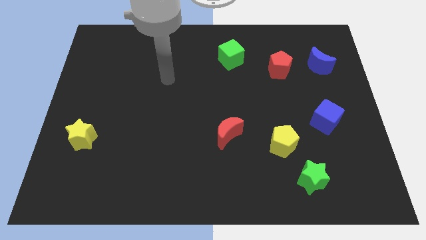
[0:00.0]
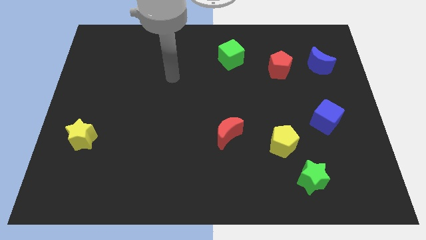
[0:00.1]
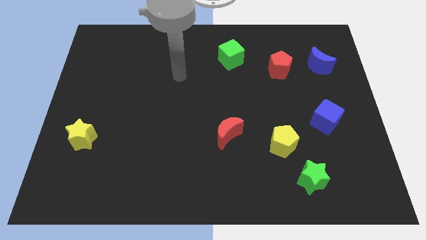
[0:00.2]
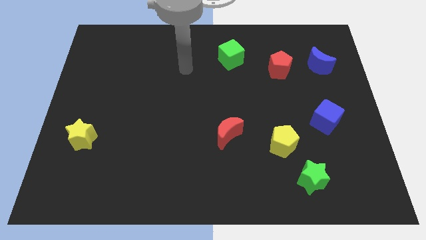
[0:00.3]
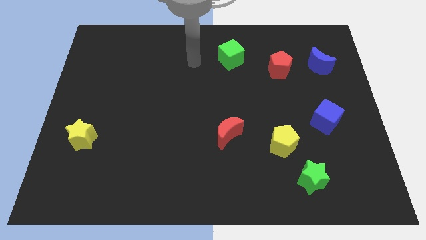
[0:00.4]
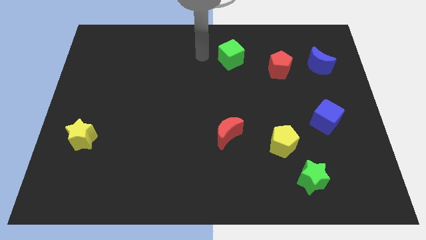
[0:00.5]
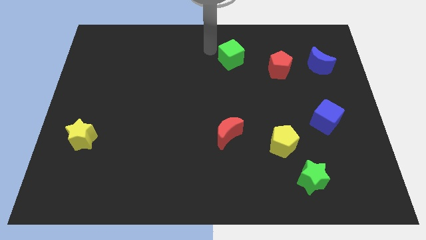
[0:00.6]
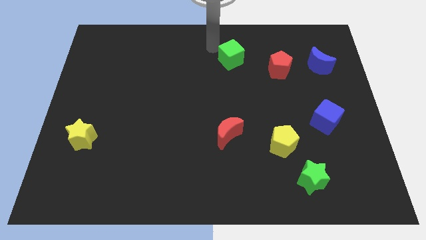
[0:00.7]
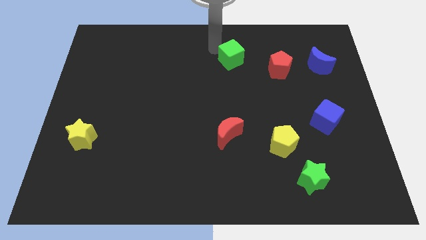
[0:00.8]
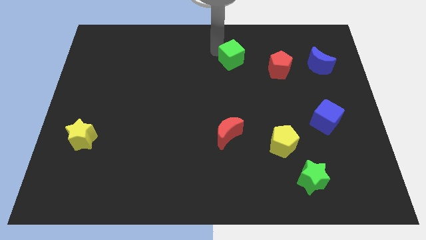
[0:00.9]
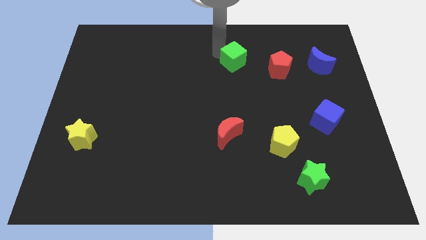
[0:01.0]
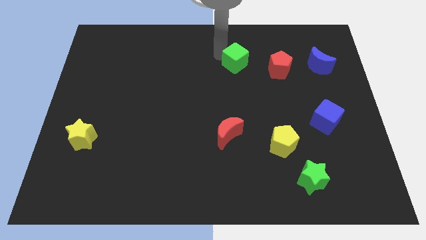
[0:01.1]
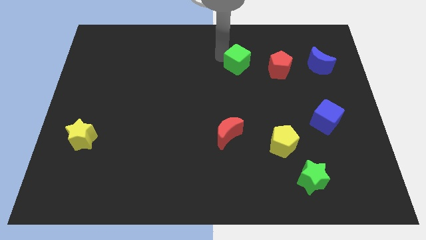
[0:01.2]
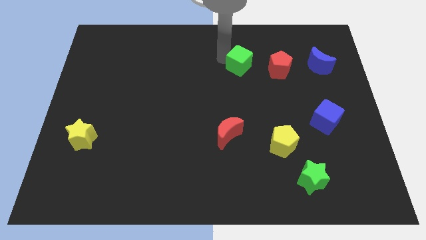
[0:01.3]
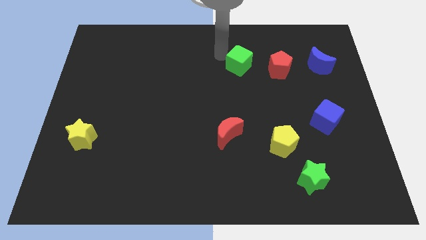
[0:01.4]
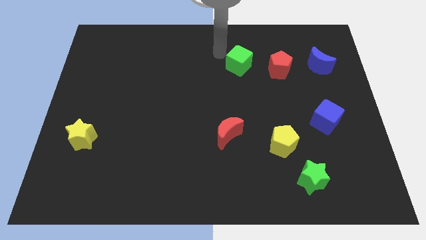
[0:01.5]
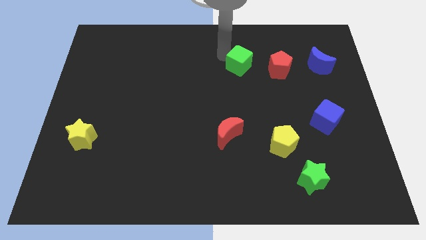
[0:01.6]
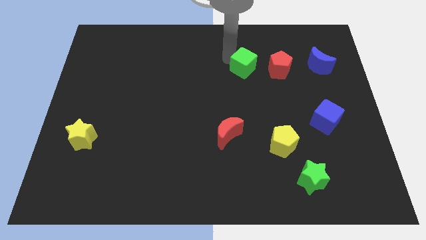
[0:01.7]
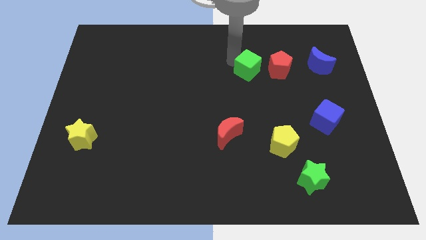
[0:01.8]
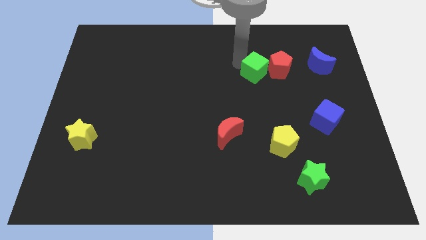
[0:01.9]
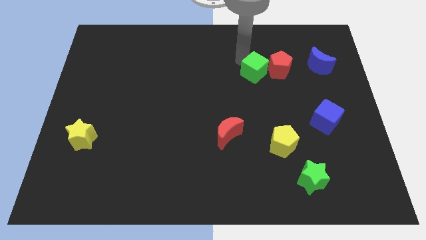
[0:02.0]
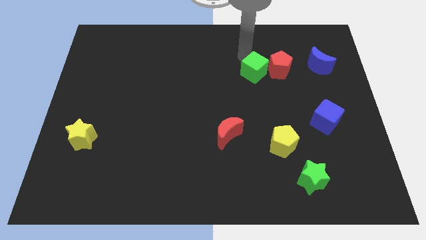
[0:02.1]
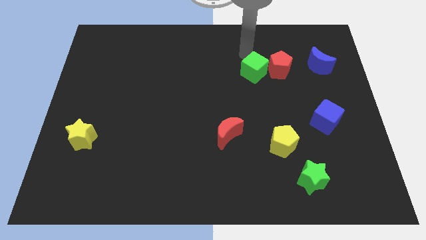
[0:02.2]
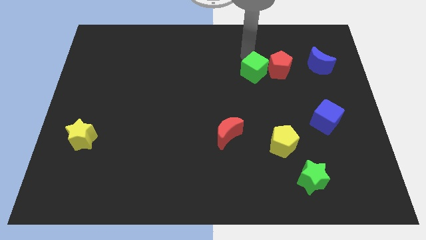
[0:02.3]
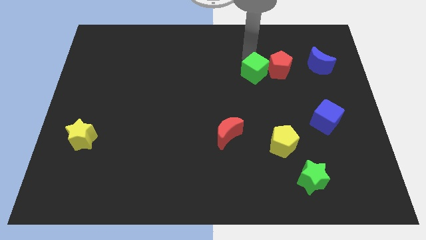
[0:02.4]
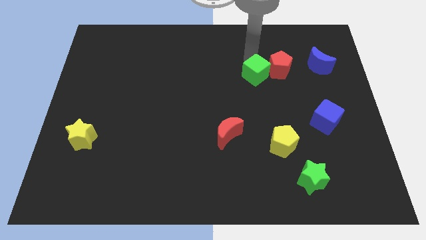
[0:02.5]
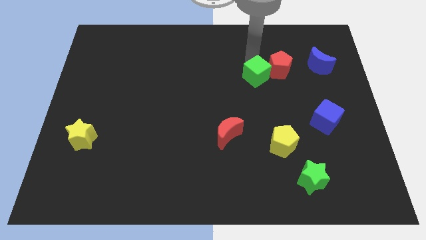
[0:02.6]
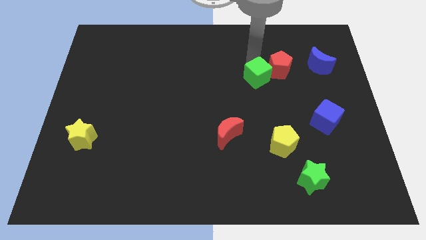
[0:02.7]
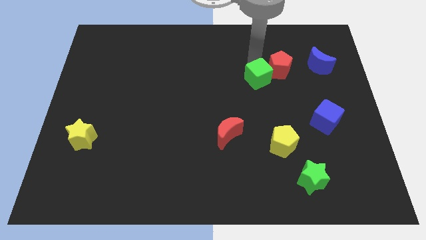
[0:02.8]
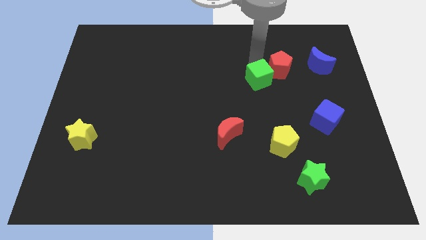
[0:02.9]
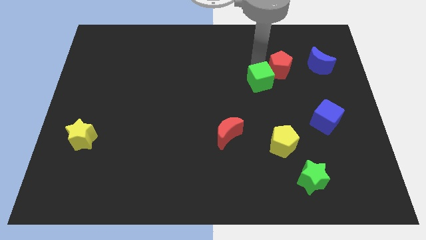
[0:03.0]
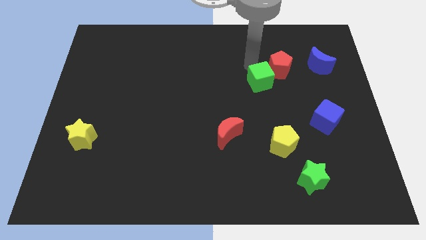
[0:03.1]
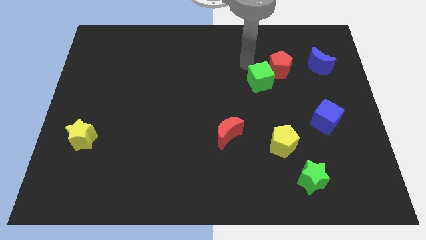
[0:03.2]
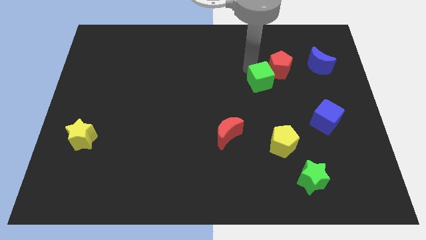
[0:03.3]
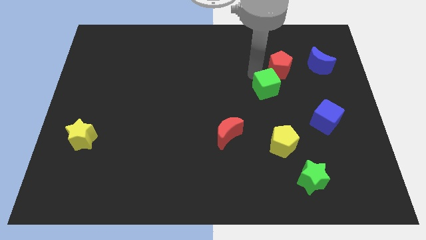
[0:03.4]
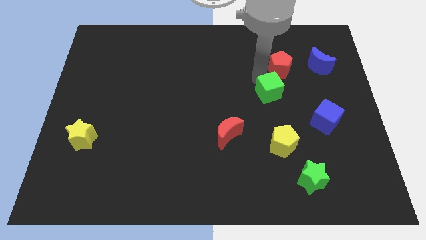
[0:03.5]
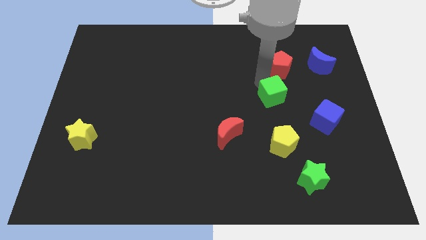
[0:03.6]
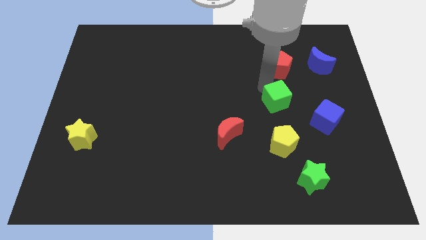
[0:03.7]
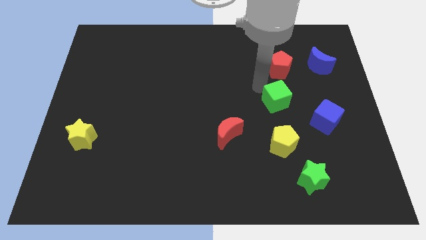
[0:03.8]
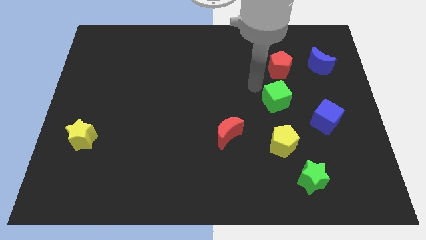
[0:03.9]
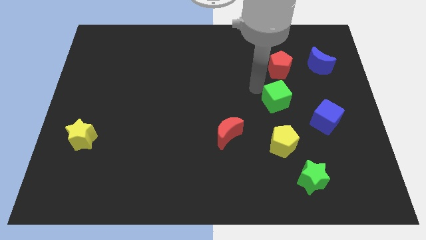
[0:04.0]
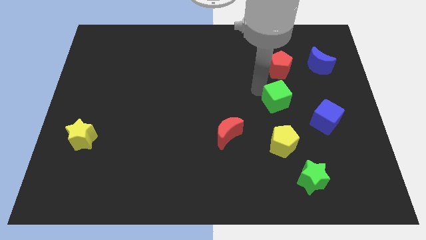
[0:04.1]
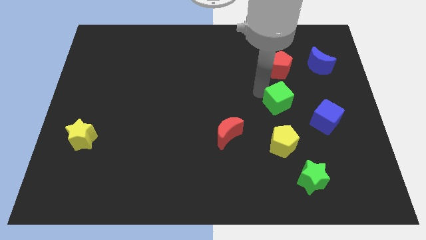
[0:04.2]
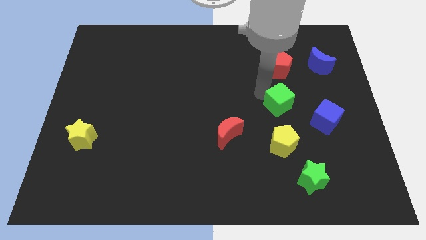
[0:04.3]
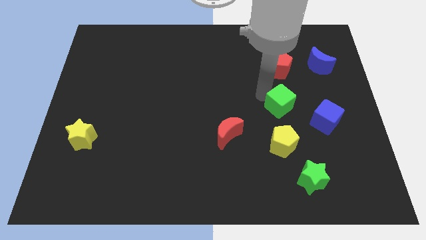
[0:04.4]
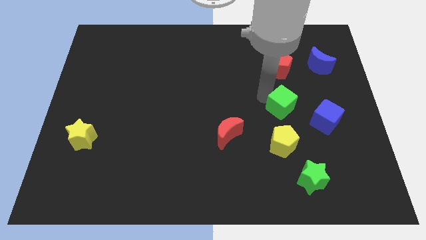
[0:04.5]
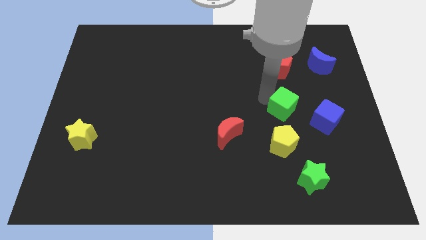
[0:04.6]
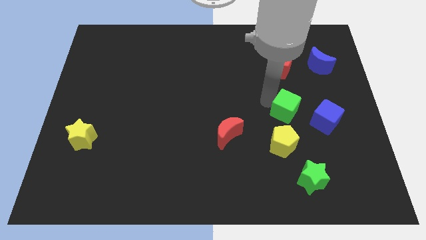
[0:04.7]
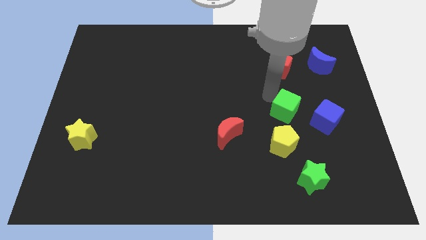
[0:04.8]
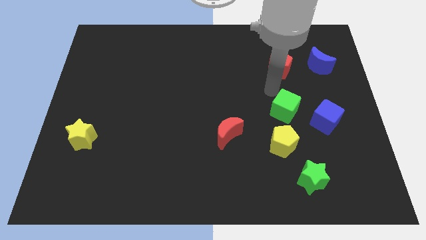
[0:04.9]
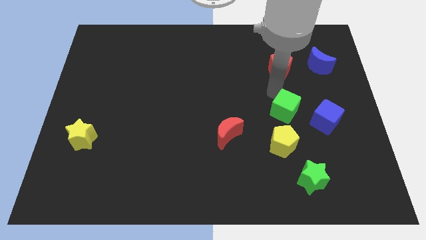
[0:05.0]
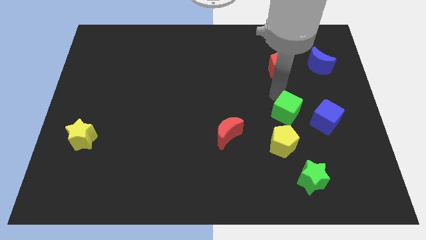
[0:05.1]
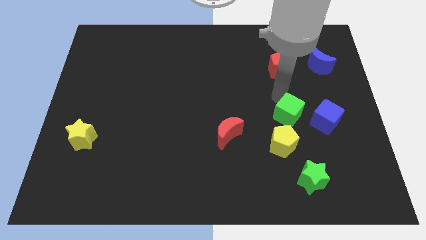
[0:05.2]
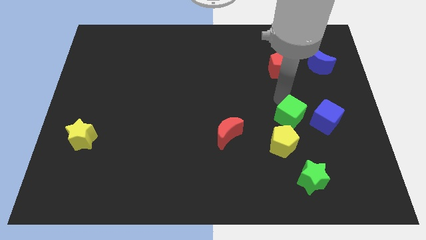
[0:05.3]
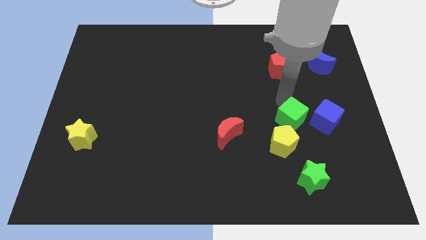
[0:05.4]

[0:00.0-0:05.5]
put the green cube above the green star

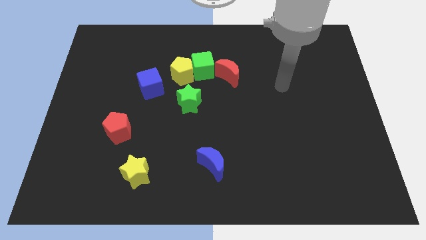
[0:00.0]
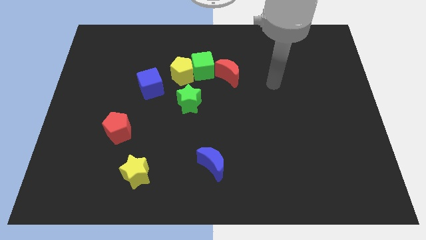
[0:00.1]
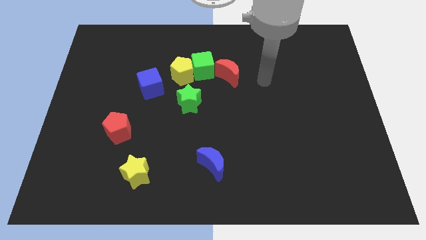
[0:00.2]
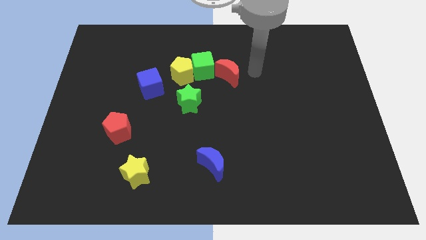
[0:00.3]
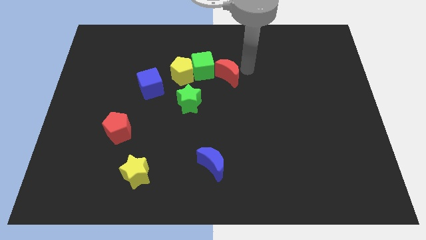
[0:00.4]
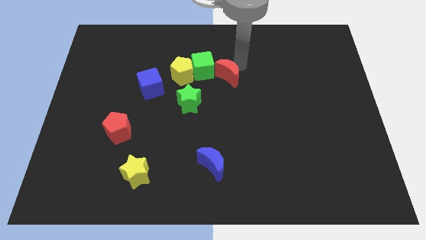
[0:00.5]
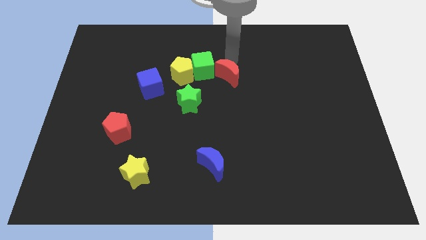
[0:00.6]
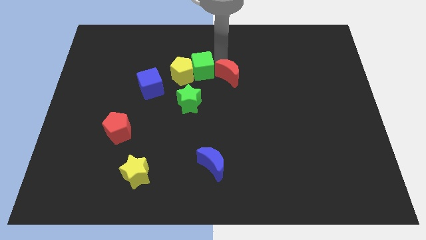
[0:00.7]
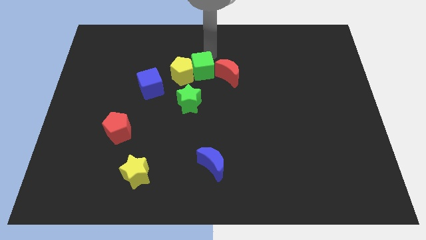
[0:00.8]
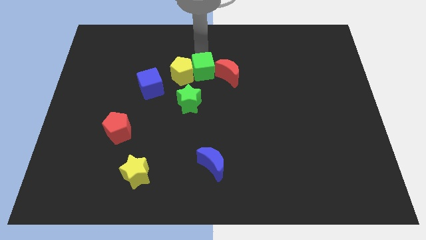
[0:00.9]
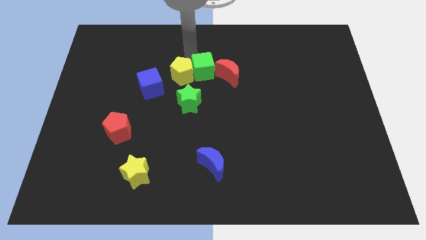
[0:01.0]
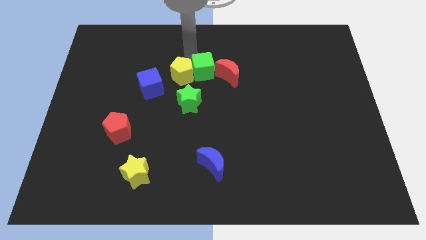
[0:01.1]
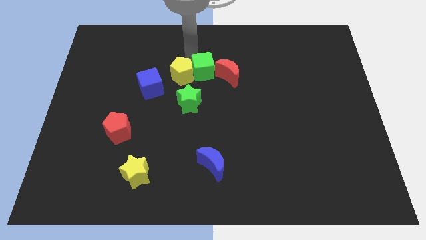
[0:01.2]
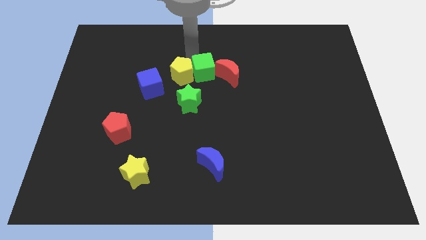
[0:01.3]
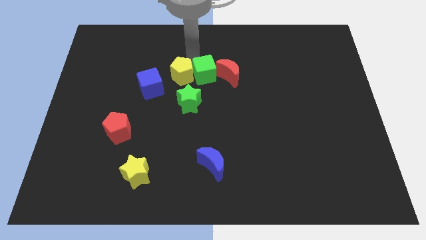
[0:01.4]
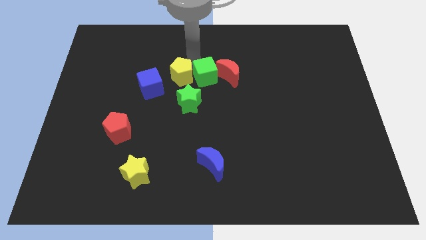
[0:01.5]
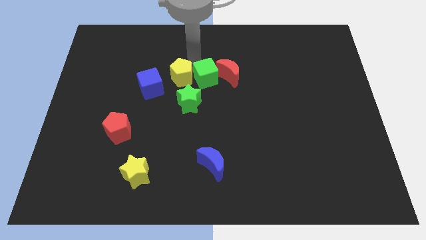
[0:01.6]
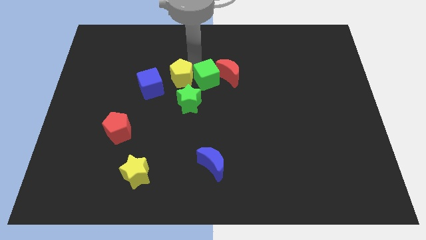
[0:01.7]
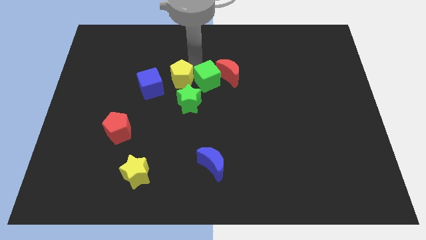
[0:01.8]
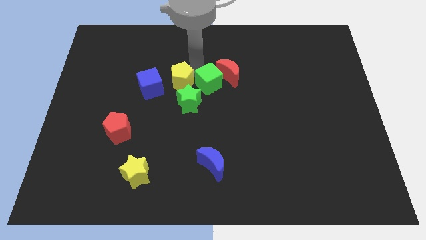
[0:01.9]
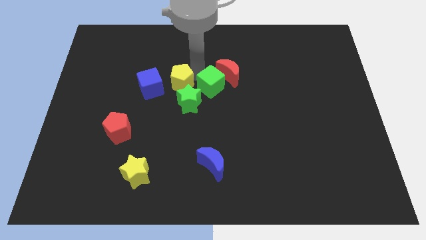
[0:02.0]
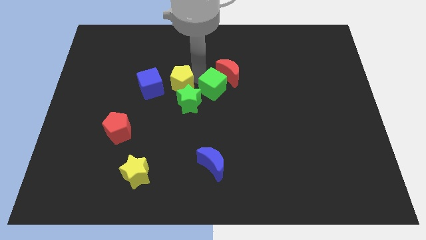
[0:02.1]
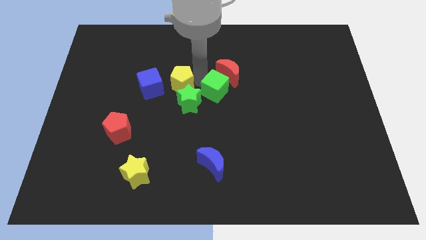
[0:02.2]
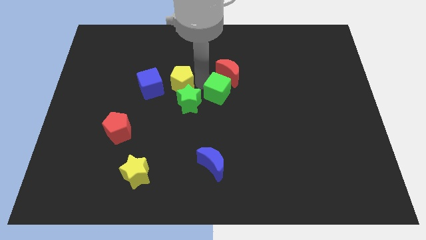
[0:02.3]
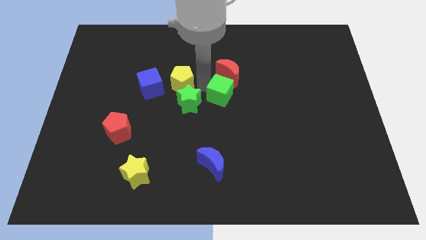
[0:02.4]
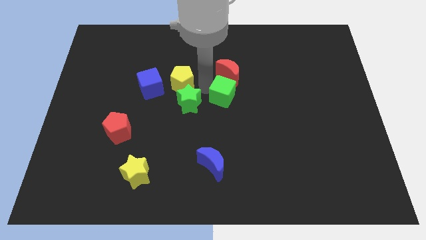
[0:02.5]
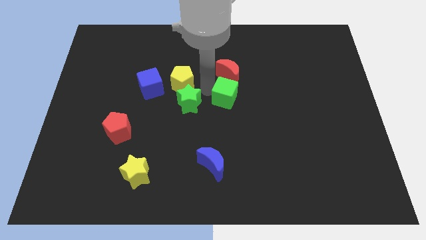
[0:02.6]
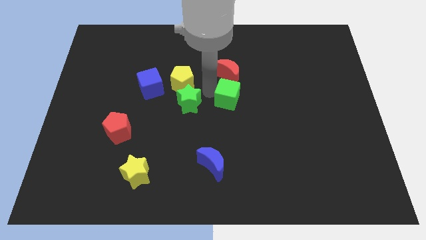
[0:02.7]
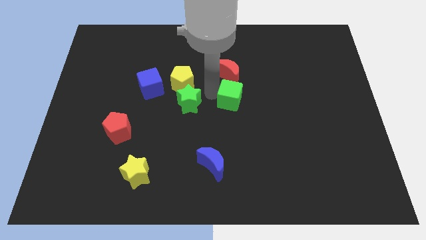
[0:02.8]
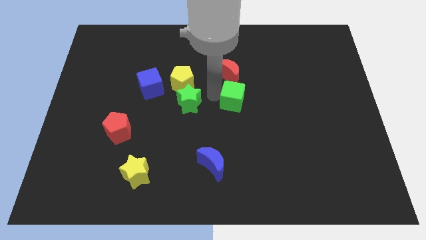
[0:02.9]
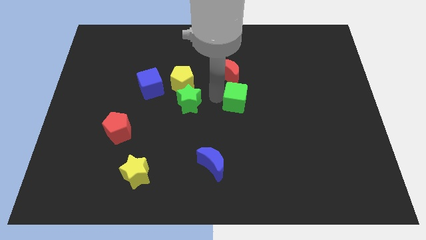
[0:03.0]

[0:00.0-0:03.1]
push the green cube to the bottom right of the red moon
